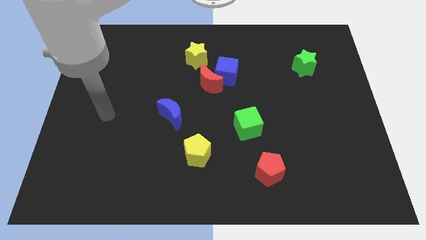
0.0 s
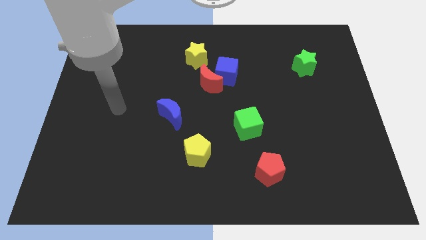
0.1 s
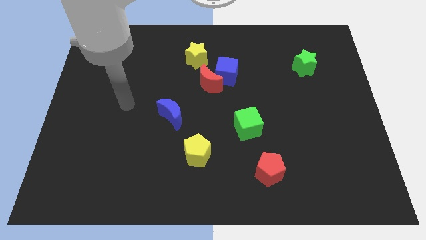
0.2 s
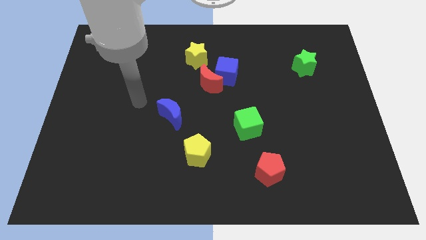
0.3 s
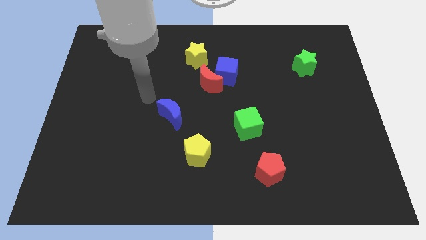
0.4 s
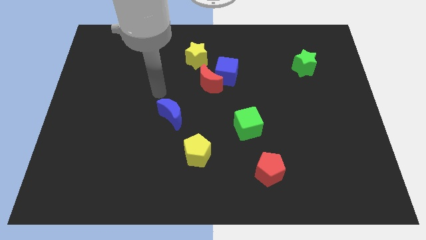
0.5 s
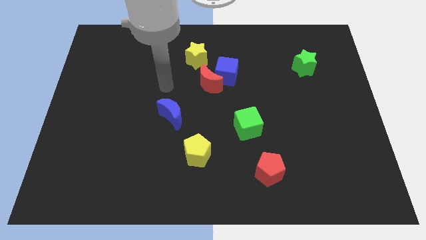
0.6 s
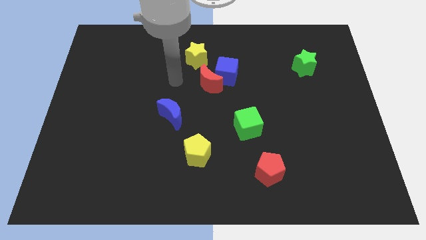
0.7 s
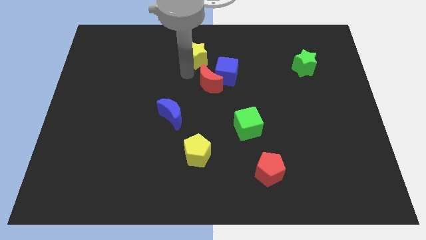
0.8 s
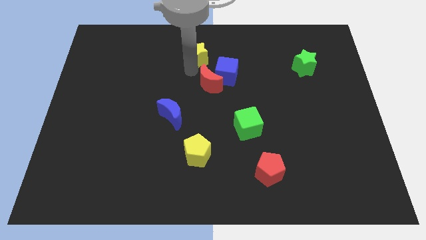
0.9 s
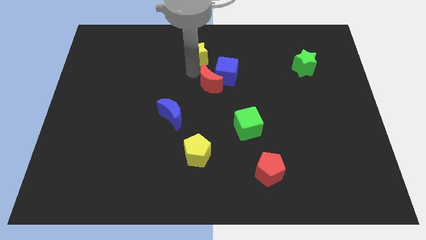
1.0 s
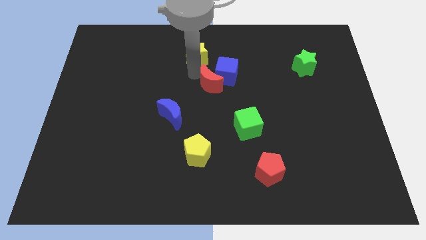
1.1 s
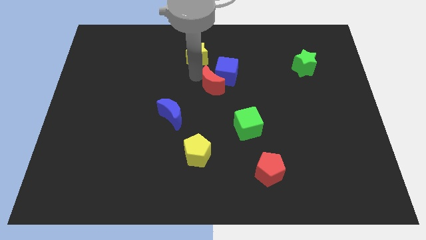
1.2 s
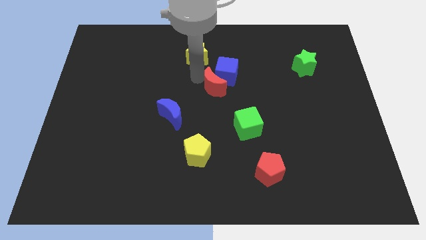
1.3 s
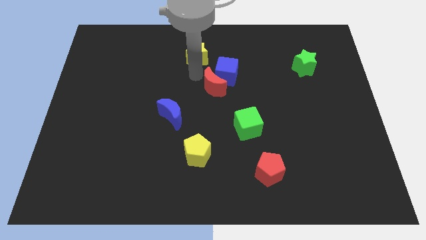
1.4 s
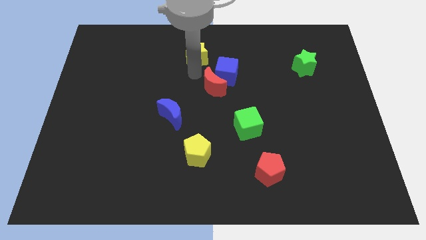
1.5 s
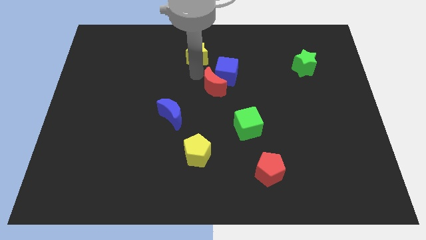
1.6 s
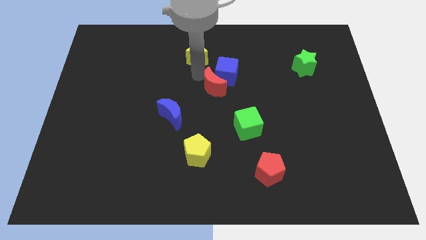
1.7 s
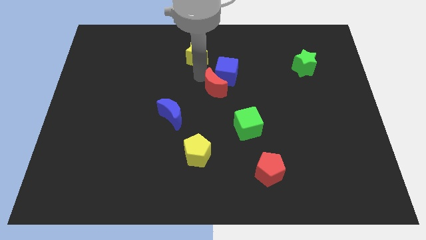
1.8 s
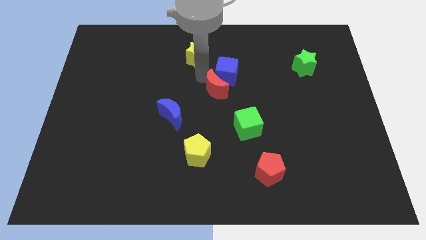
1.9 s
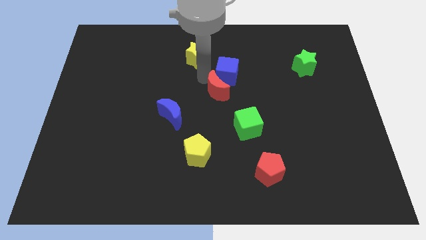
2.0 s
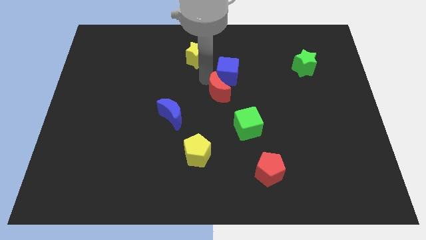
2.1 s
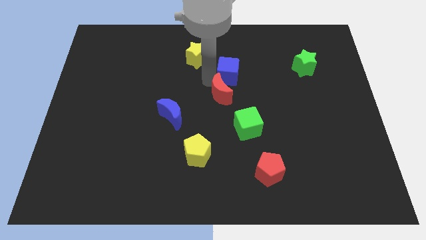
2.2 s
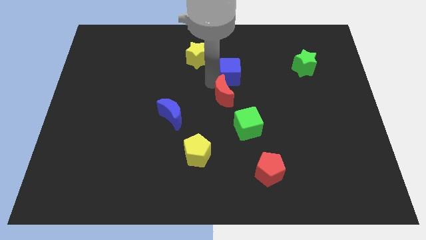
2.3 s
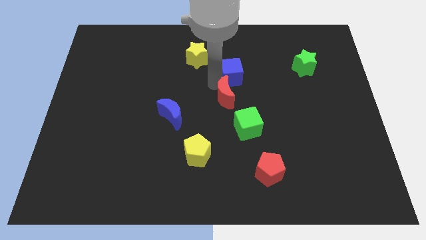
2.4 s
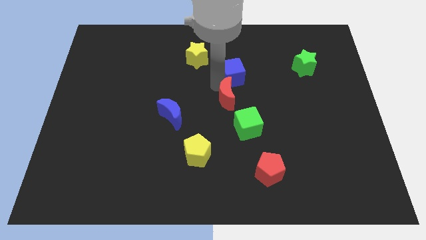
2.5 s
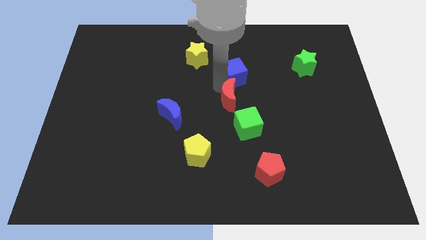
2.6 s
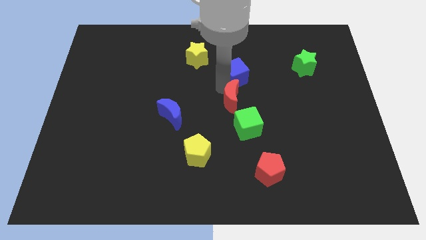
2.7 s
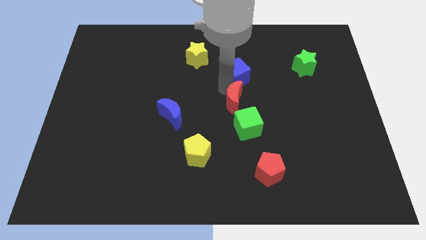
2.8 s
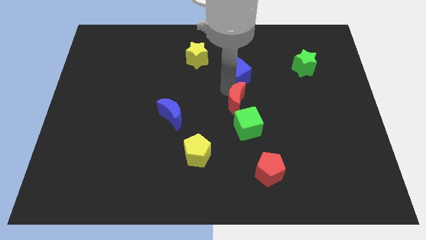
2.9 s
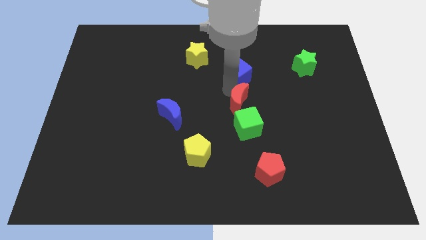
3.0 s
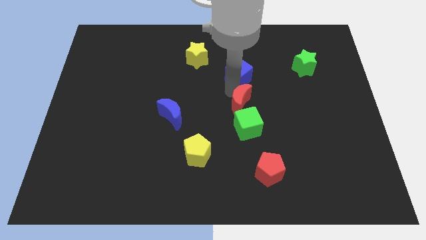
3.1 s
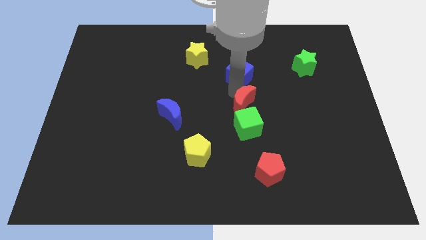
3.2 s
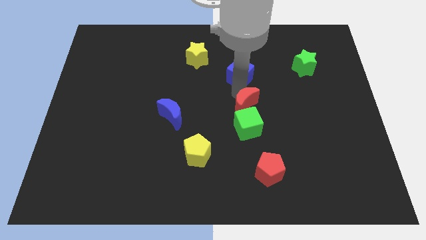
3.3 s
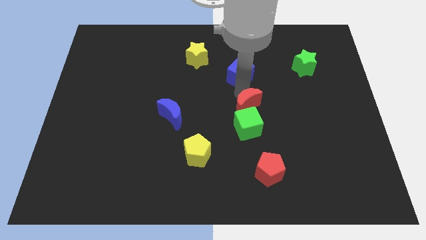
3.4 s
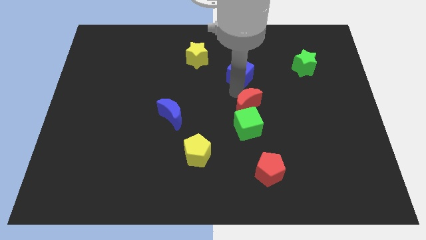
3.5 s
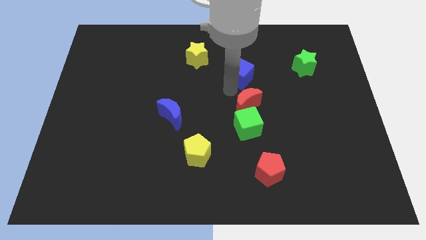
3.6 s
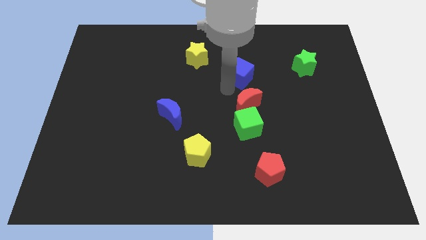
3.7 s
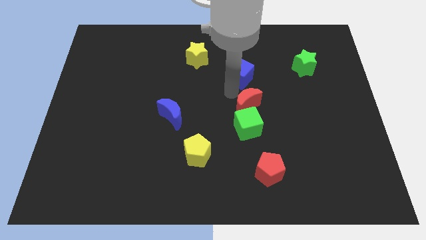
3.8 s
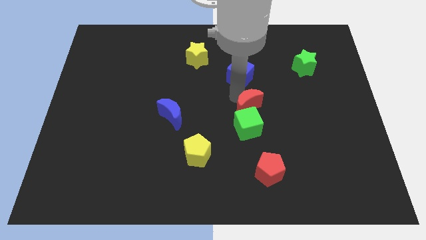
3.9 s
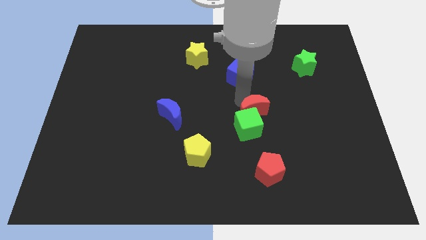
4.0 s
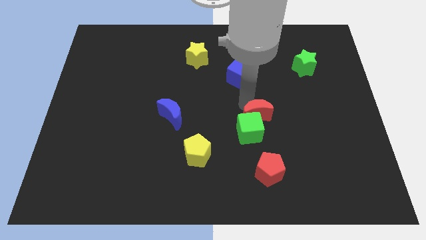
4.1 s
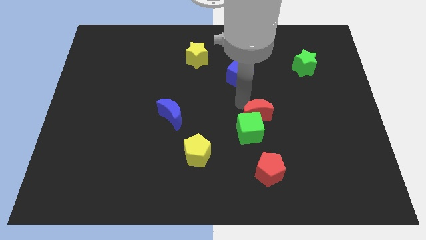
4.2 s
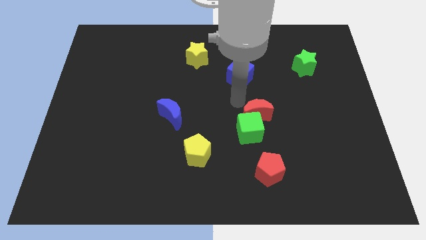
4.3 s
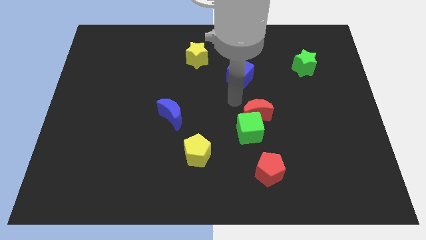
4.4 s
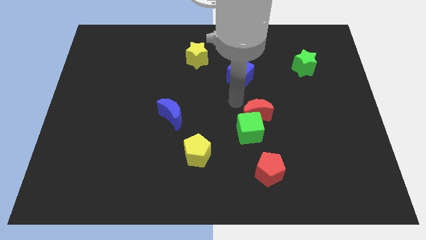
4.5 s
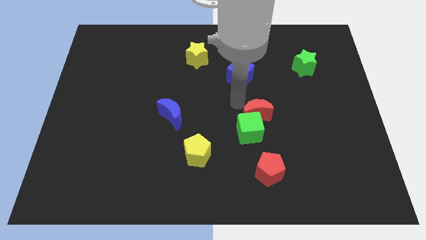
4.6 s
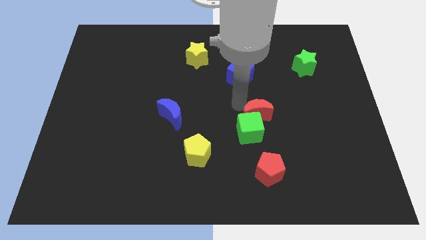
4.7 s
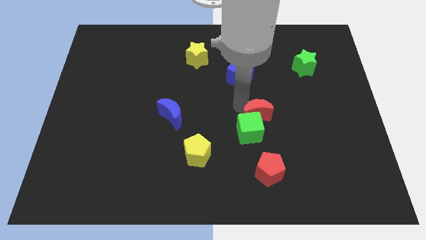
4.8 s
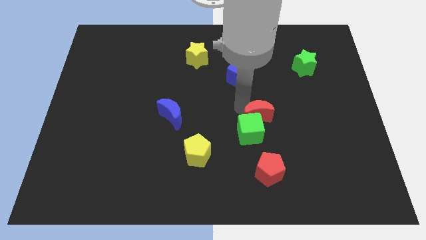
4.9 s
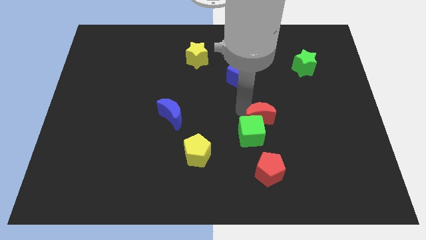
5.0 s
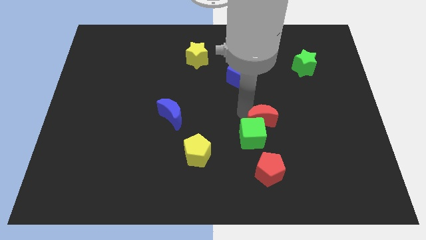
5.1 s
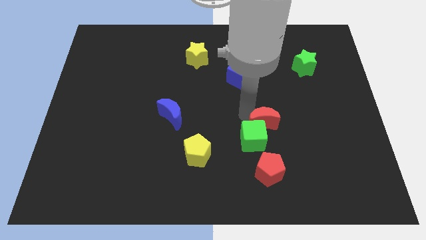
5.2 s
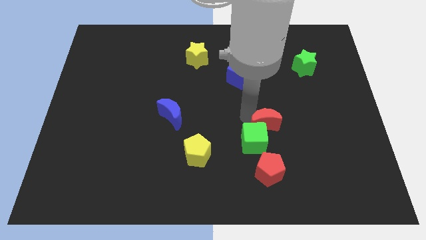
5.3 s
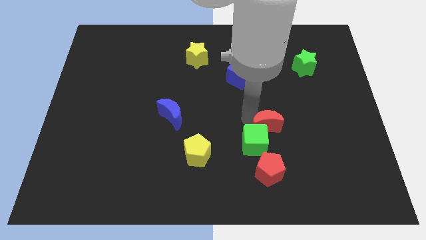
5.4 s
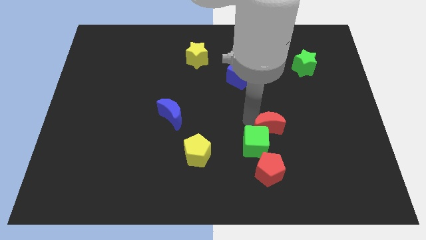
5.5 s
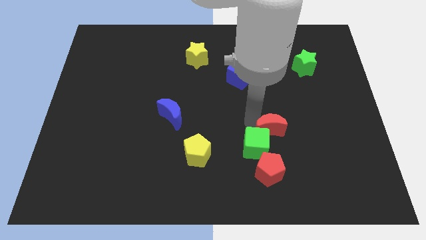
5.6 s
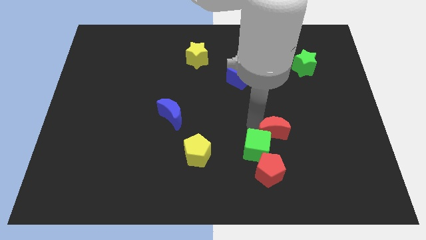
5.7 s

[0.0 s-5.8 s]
push the red moon diagonally downwards and right

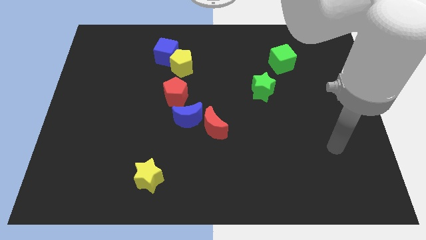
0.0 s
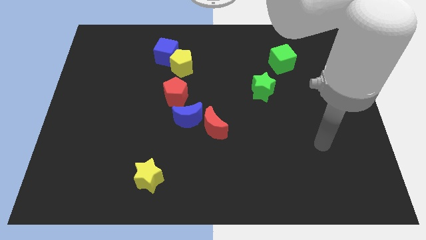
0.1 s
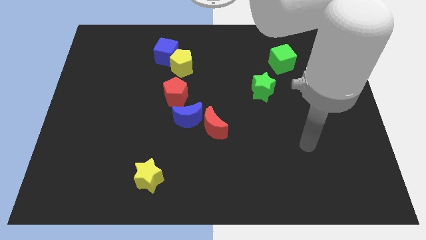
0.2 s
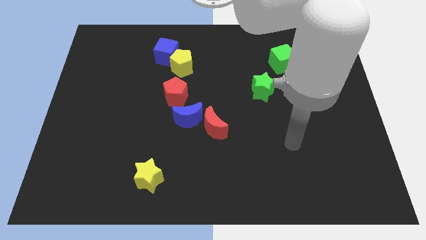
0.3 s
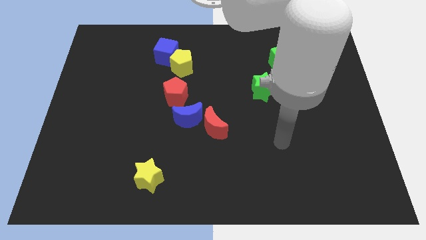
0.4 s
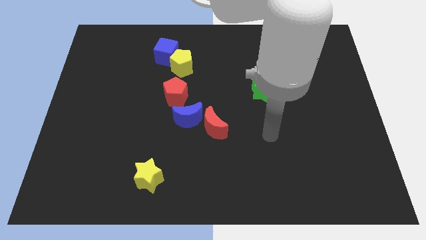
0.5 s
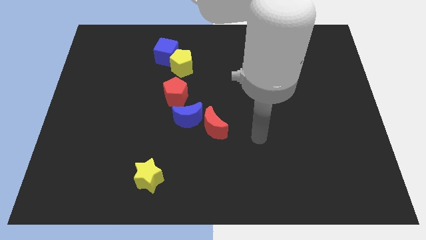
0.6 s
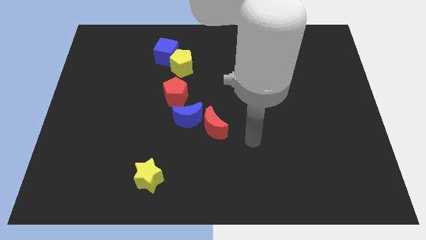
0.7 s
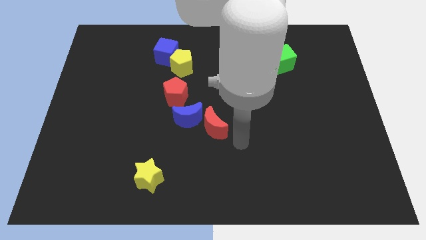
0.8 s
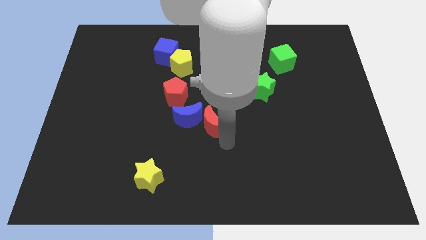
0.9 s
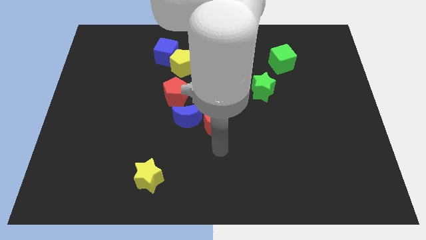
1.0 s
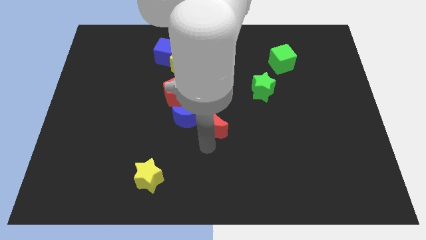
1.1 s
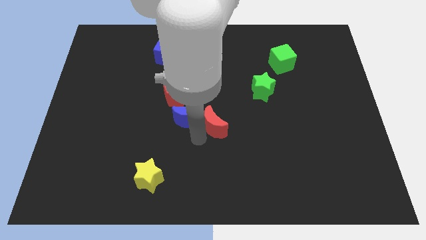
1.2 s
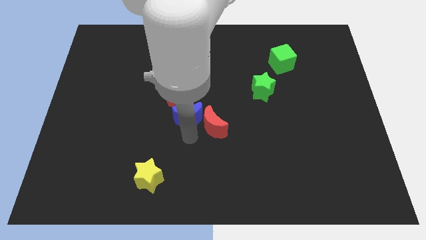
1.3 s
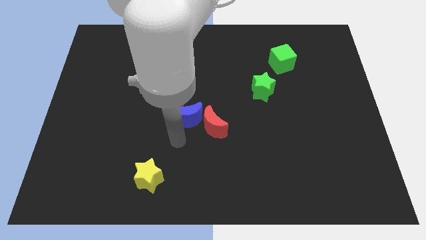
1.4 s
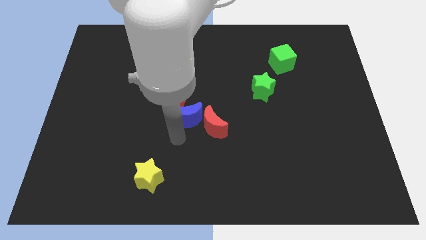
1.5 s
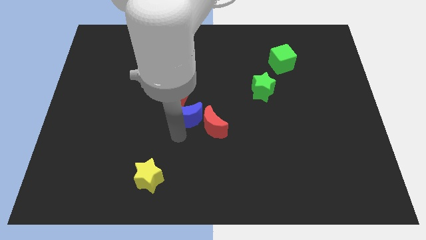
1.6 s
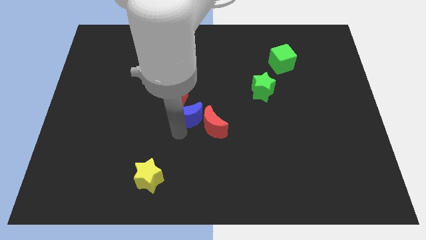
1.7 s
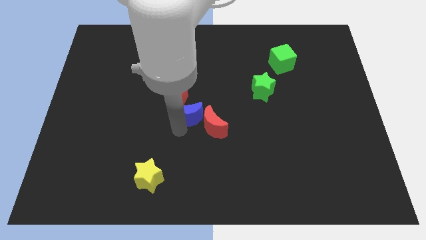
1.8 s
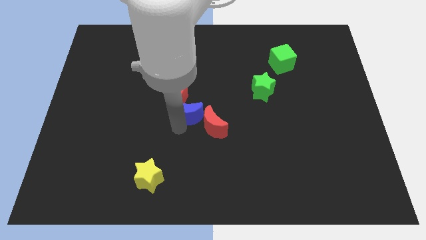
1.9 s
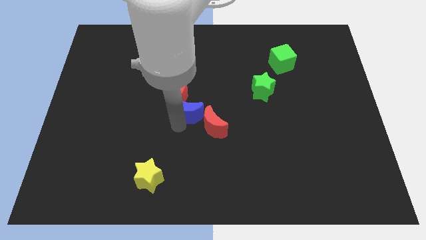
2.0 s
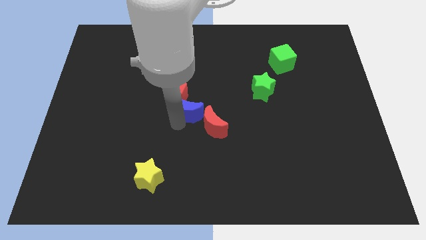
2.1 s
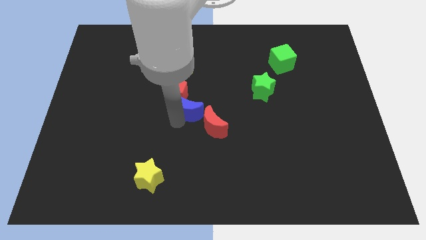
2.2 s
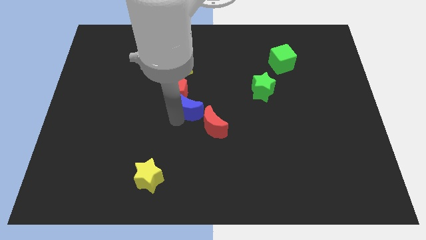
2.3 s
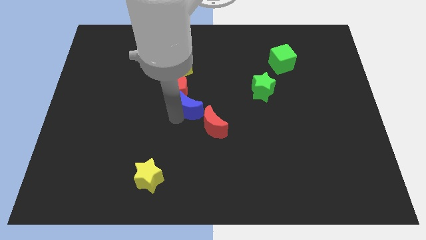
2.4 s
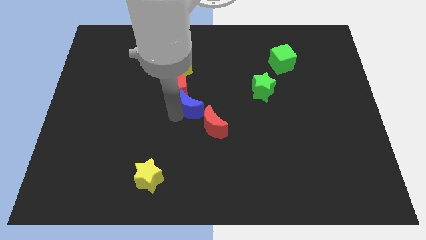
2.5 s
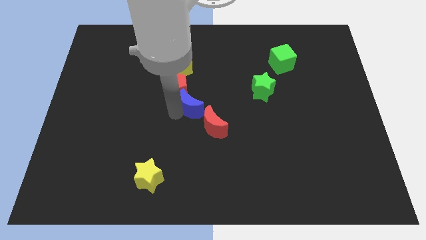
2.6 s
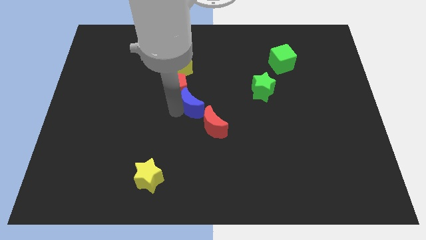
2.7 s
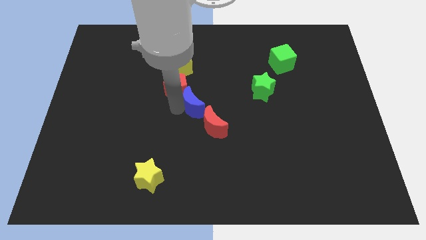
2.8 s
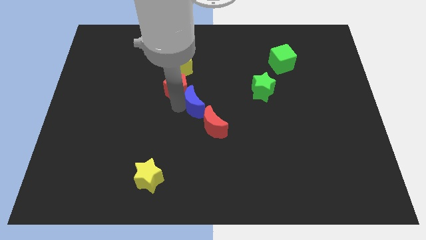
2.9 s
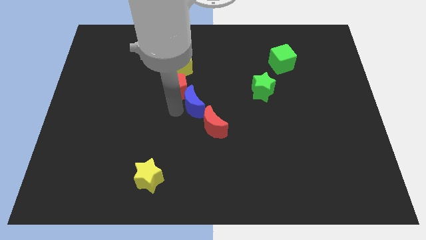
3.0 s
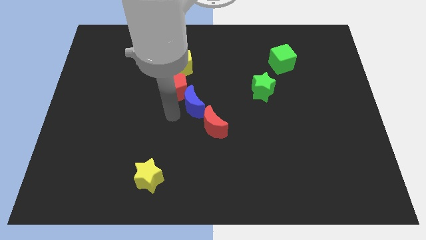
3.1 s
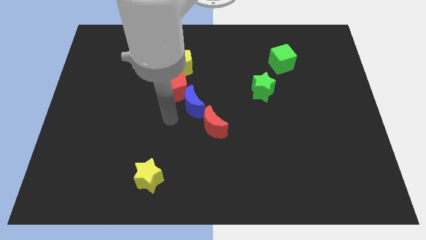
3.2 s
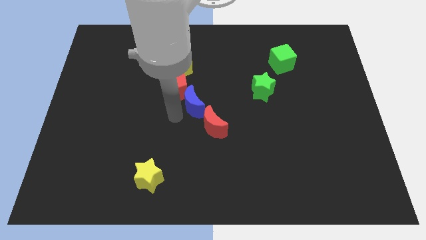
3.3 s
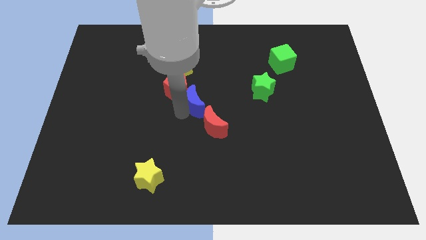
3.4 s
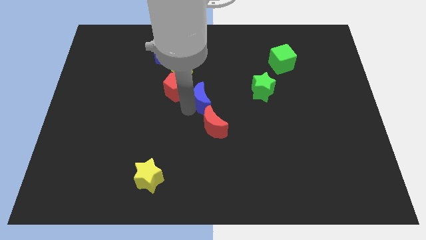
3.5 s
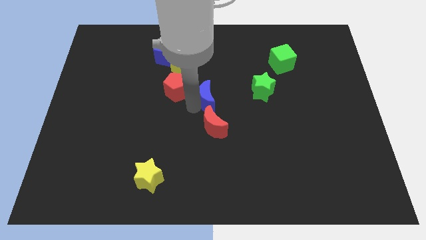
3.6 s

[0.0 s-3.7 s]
slightly push the blue moon up and right
